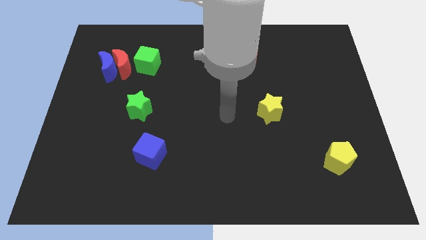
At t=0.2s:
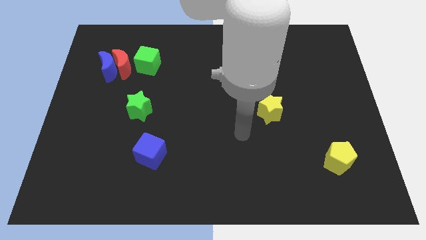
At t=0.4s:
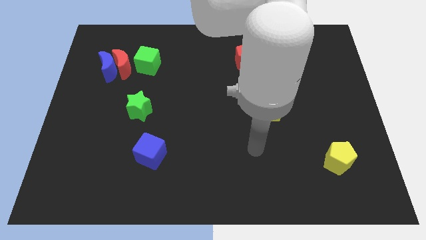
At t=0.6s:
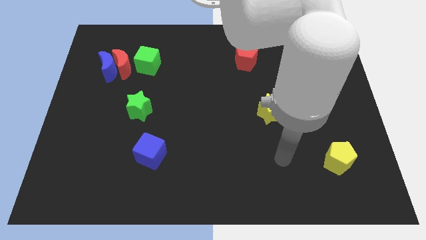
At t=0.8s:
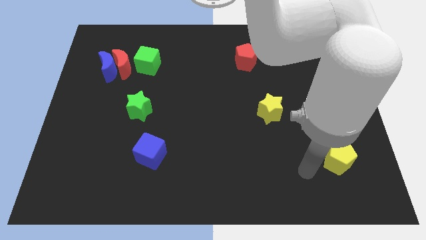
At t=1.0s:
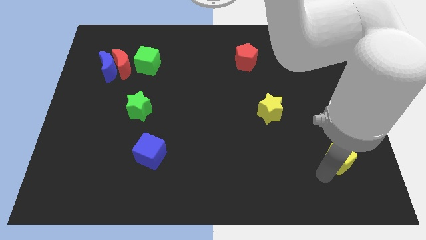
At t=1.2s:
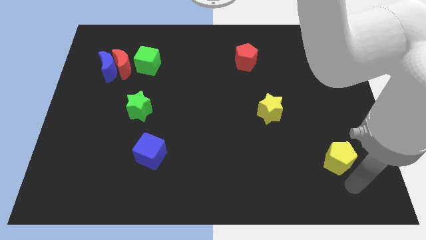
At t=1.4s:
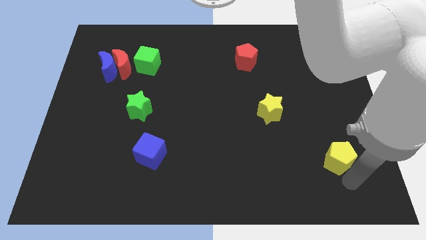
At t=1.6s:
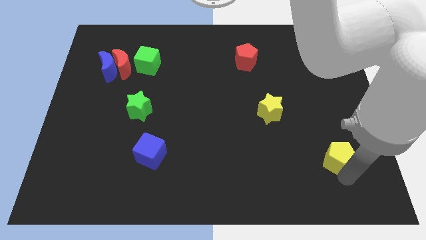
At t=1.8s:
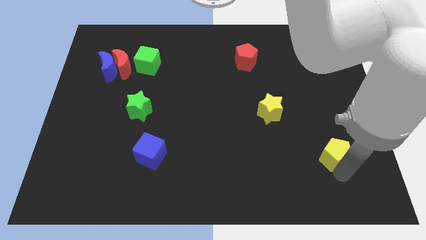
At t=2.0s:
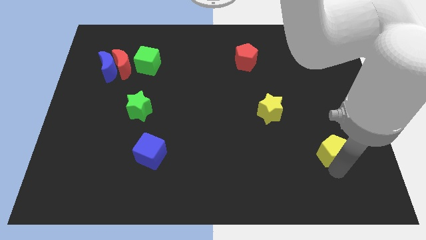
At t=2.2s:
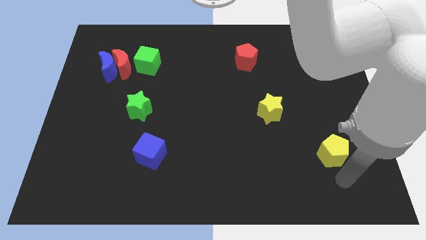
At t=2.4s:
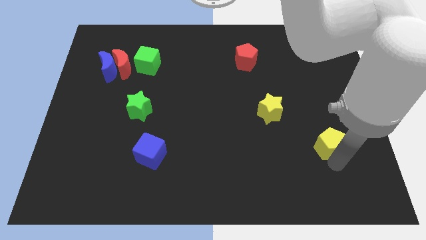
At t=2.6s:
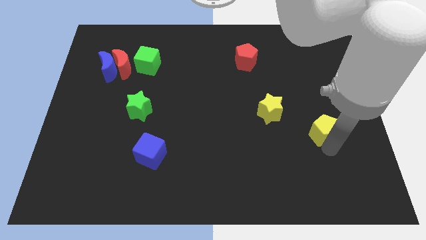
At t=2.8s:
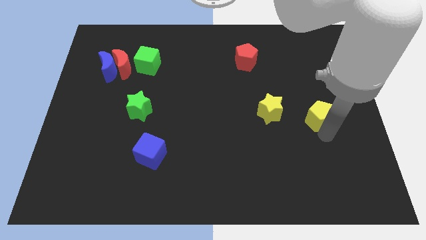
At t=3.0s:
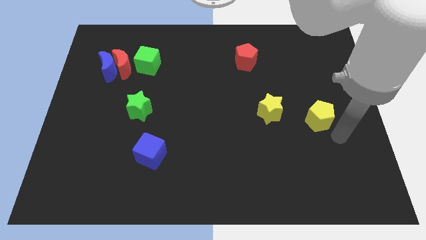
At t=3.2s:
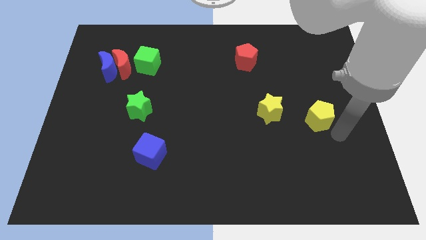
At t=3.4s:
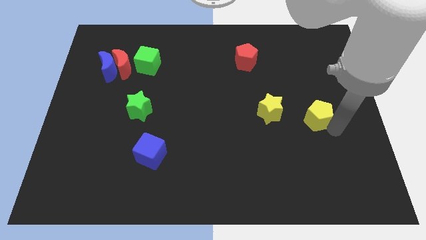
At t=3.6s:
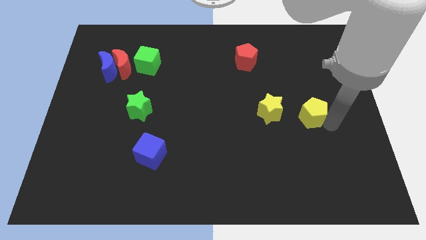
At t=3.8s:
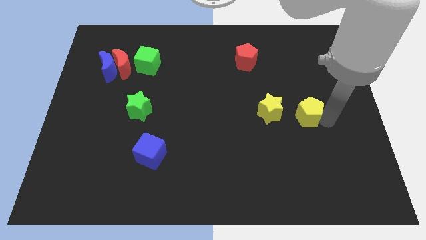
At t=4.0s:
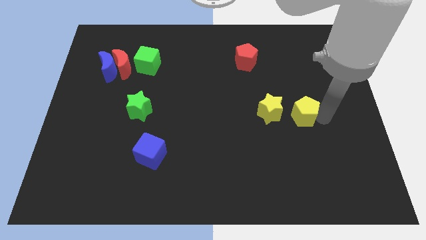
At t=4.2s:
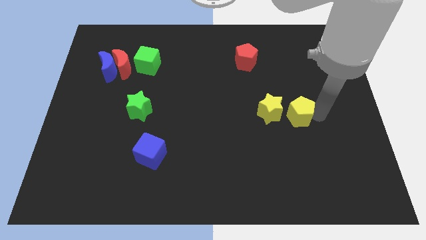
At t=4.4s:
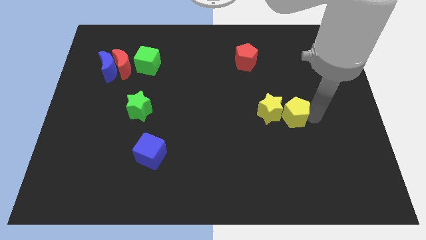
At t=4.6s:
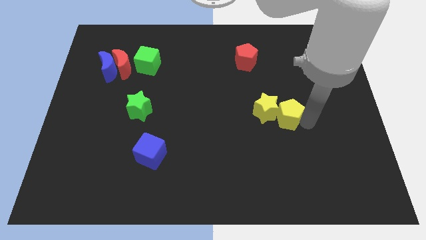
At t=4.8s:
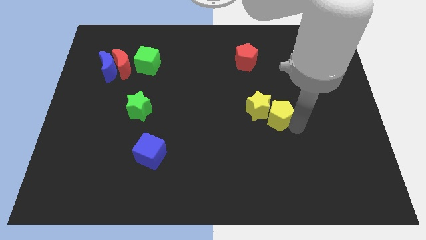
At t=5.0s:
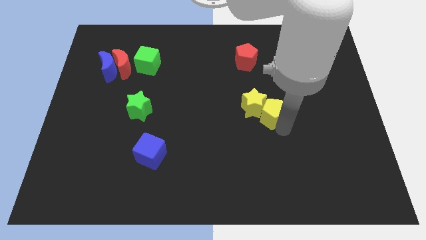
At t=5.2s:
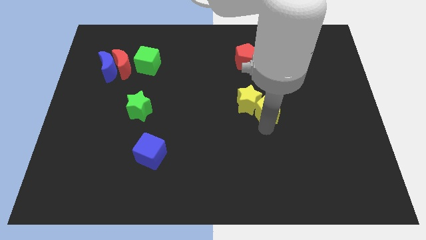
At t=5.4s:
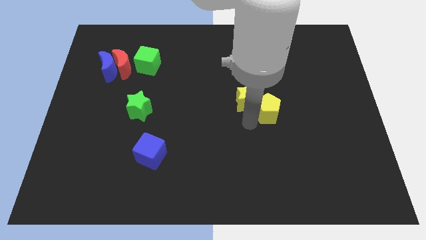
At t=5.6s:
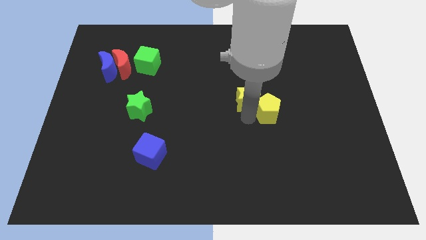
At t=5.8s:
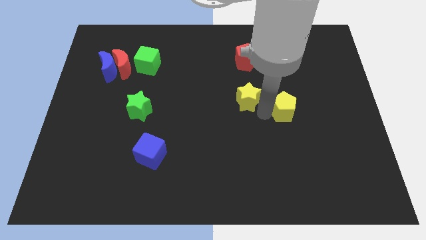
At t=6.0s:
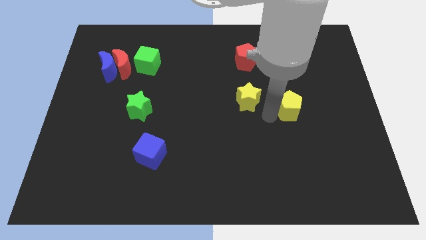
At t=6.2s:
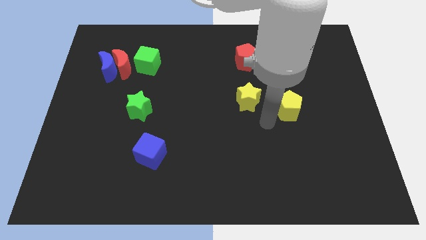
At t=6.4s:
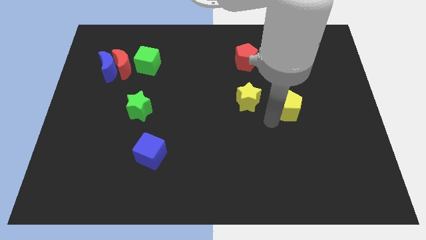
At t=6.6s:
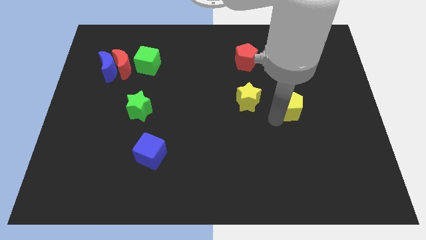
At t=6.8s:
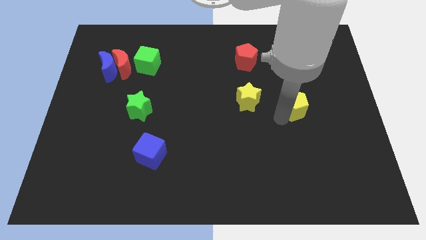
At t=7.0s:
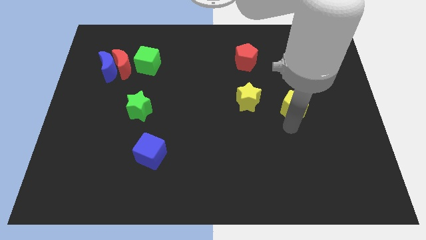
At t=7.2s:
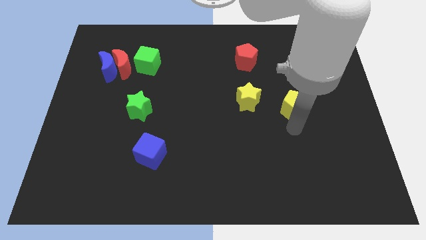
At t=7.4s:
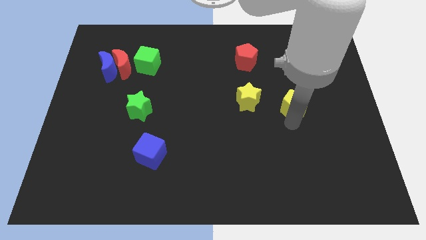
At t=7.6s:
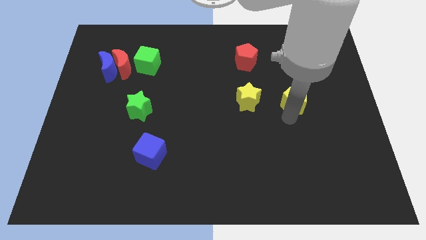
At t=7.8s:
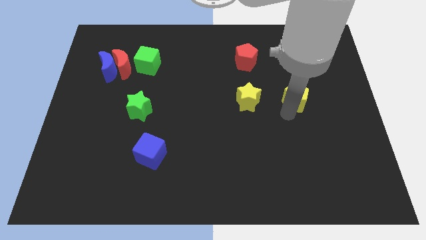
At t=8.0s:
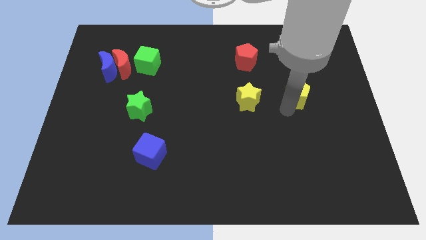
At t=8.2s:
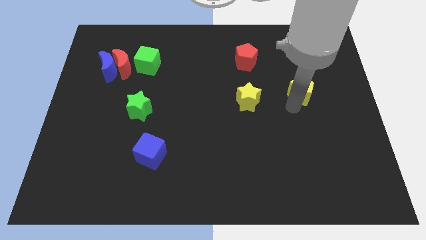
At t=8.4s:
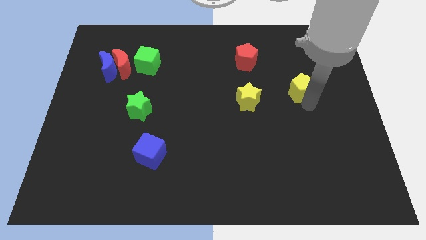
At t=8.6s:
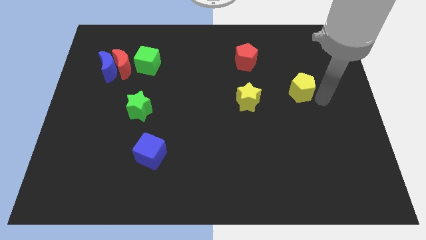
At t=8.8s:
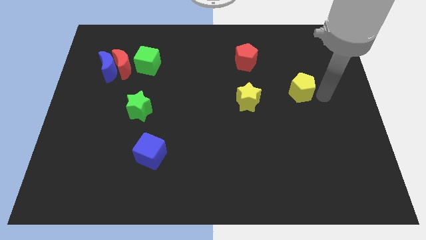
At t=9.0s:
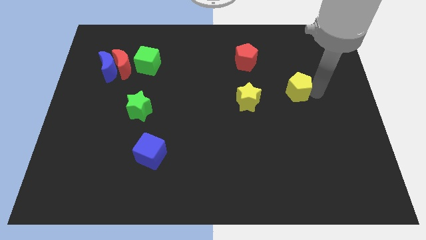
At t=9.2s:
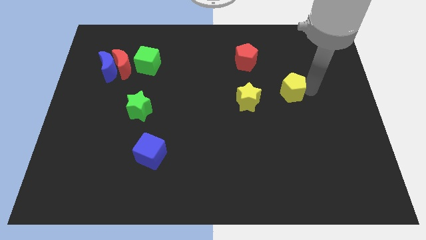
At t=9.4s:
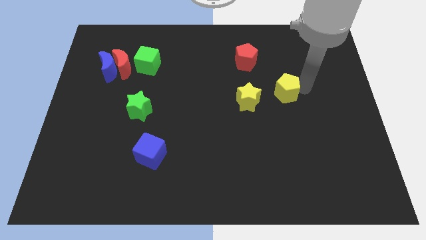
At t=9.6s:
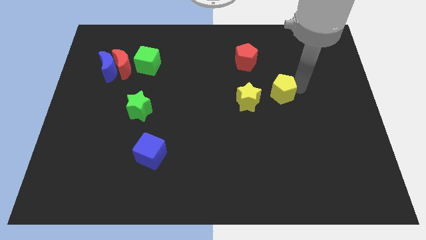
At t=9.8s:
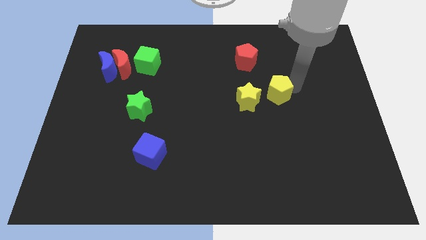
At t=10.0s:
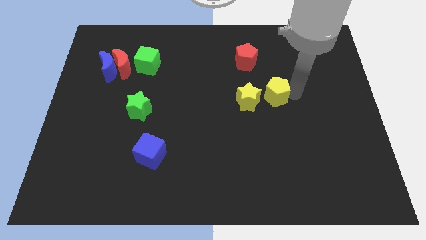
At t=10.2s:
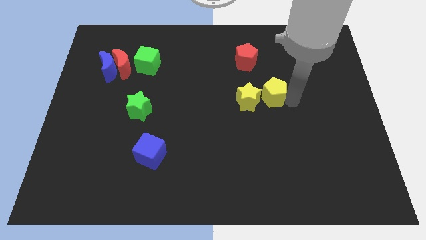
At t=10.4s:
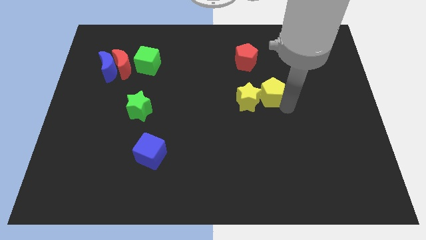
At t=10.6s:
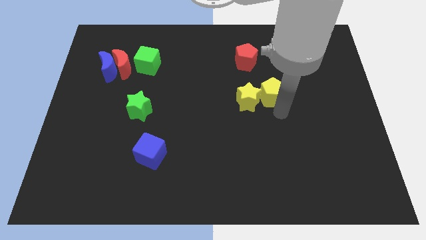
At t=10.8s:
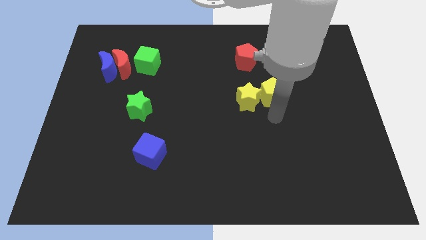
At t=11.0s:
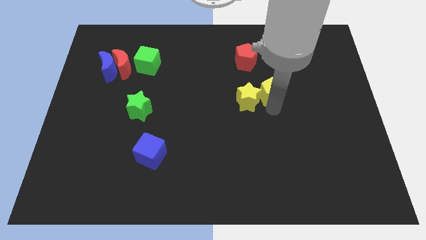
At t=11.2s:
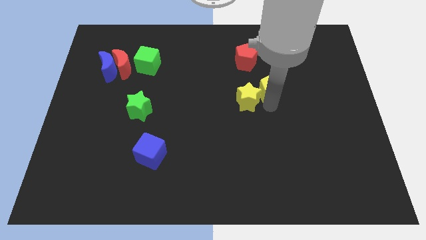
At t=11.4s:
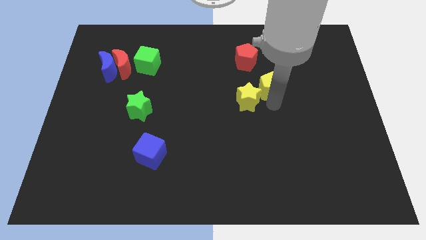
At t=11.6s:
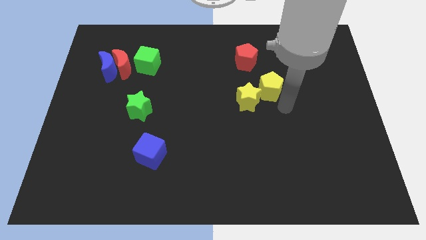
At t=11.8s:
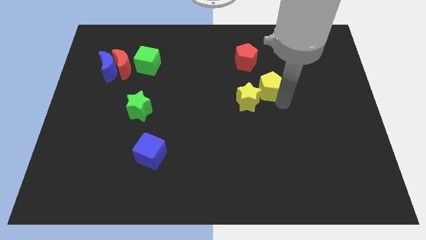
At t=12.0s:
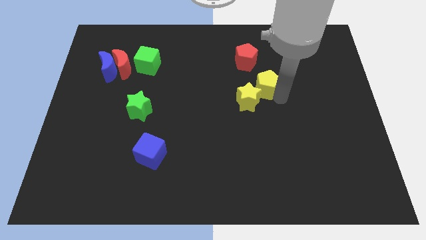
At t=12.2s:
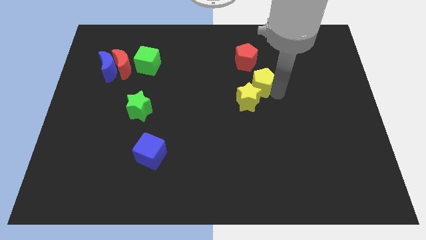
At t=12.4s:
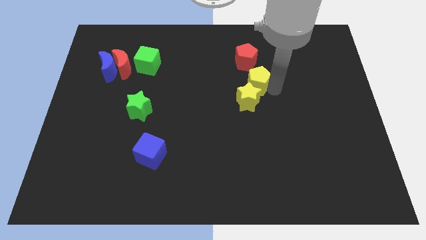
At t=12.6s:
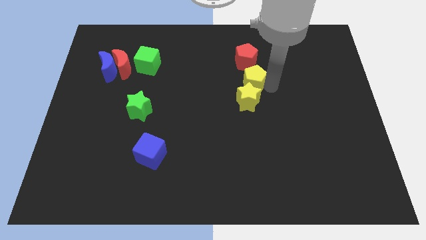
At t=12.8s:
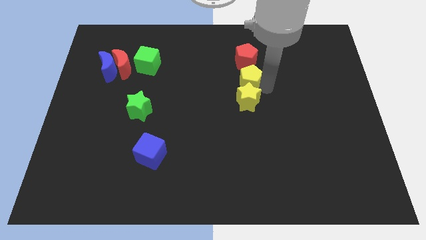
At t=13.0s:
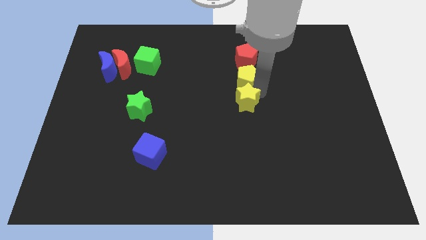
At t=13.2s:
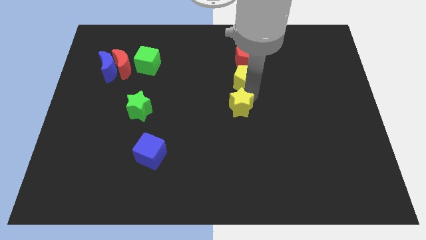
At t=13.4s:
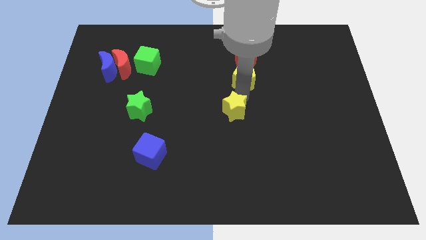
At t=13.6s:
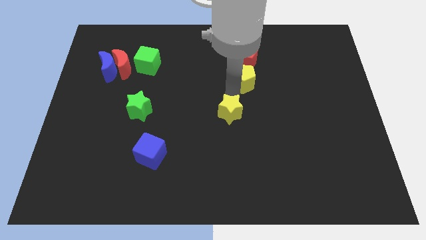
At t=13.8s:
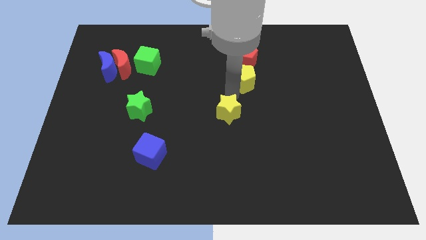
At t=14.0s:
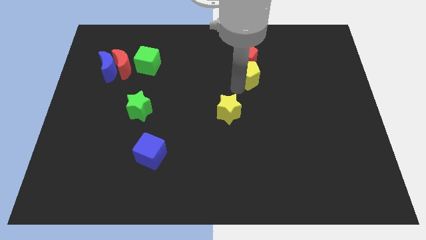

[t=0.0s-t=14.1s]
push the yellow pentagon close to the red pentagon
